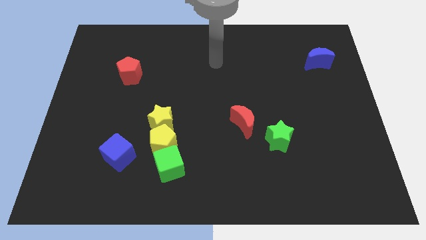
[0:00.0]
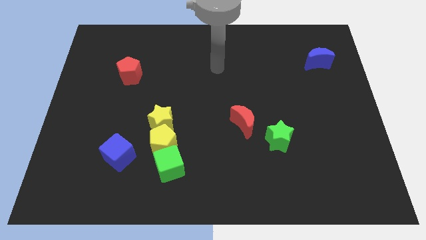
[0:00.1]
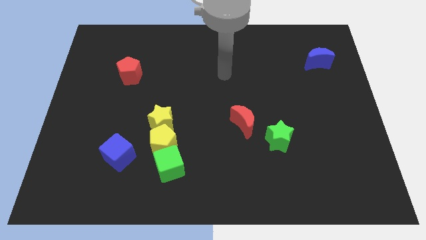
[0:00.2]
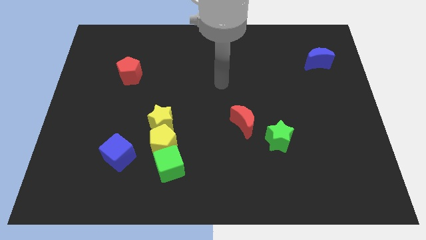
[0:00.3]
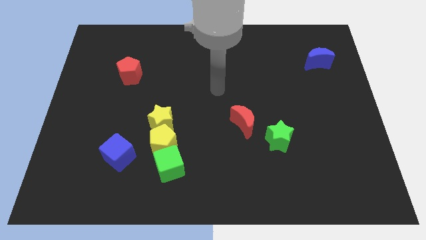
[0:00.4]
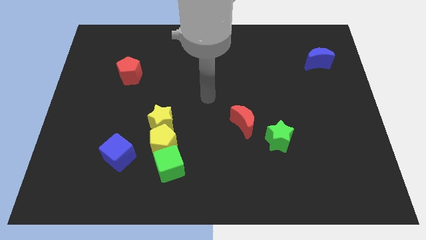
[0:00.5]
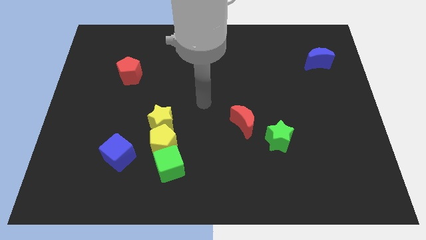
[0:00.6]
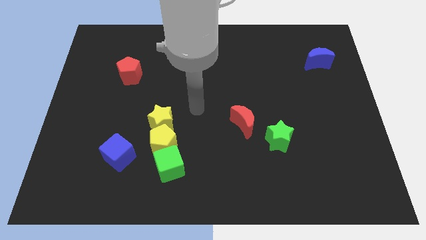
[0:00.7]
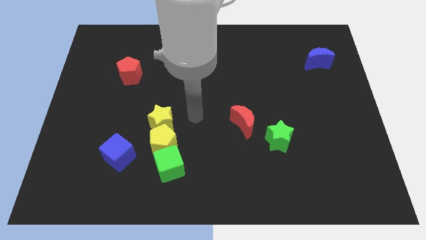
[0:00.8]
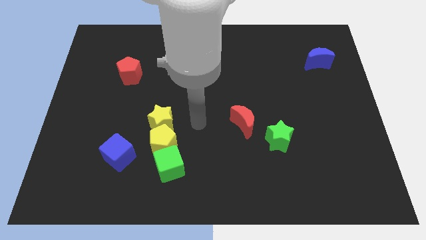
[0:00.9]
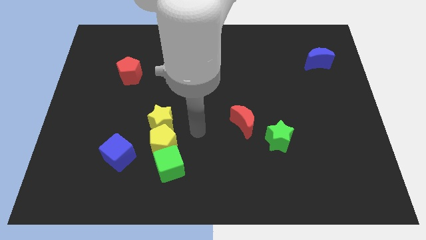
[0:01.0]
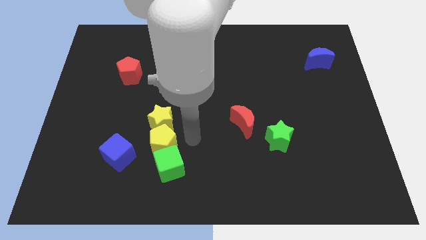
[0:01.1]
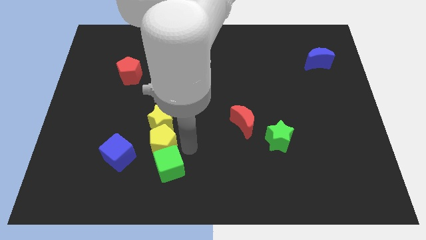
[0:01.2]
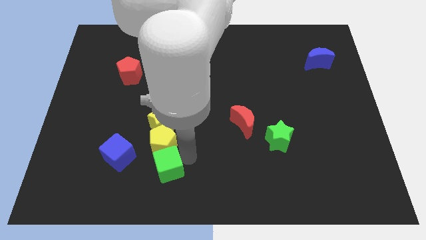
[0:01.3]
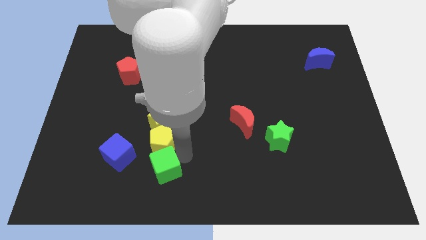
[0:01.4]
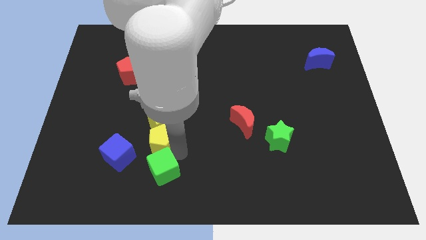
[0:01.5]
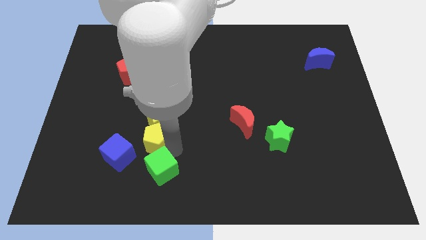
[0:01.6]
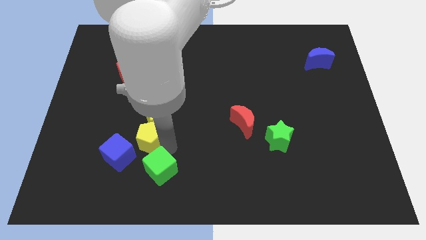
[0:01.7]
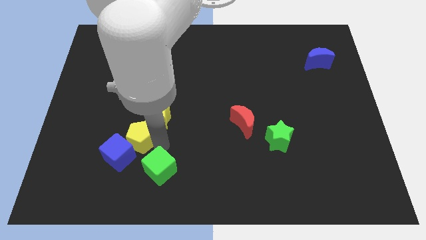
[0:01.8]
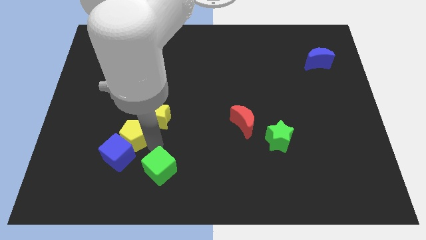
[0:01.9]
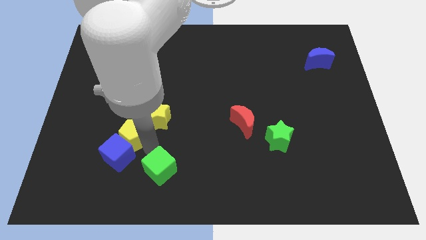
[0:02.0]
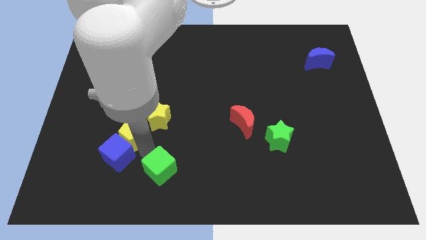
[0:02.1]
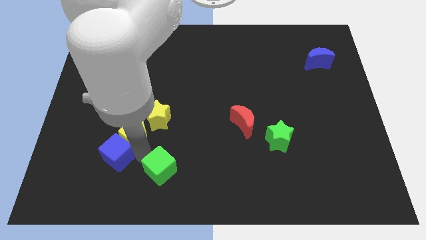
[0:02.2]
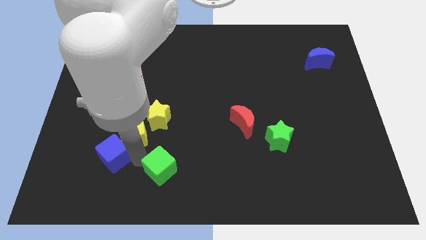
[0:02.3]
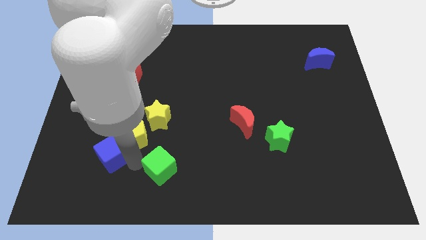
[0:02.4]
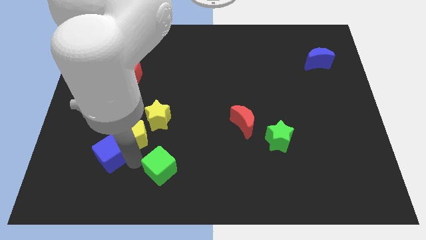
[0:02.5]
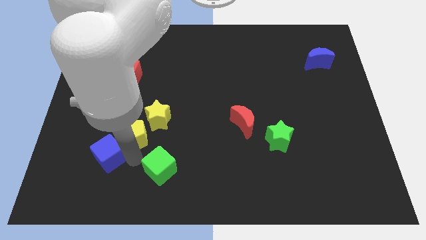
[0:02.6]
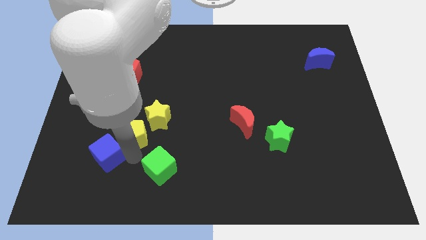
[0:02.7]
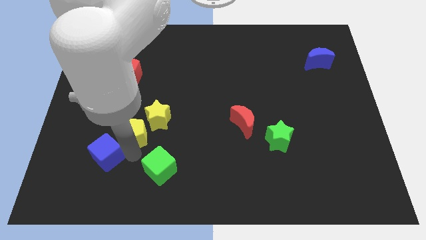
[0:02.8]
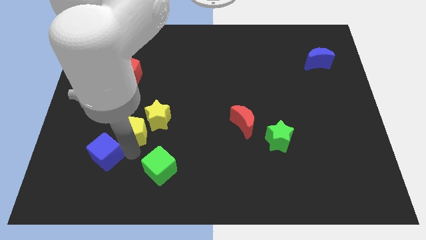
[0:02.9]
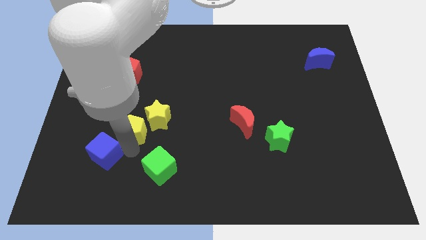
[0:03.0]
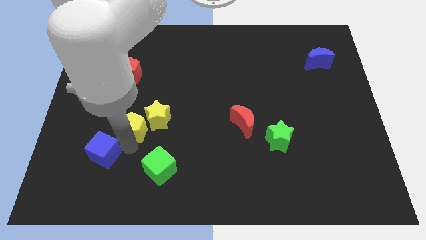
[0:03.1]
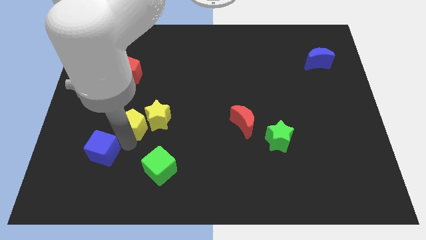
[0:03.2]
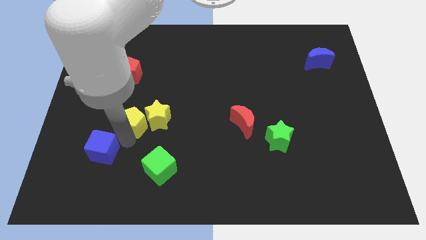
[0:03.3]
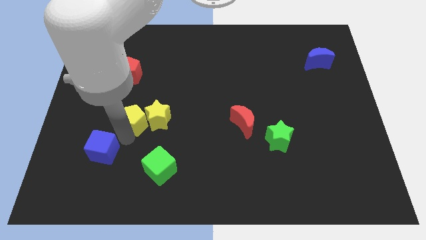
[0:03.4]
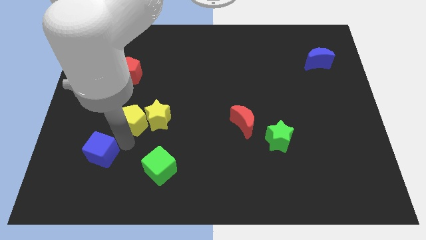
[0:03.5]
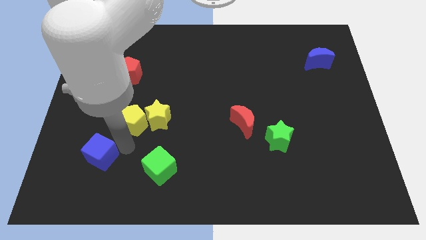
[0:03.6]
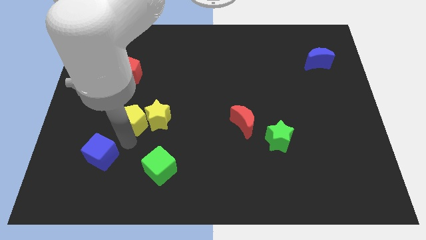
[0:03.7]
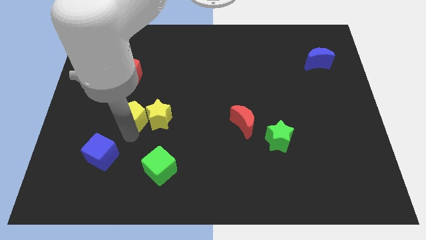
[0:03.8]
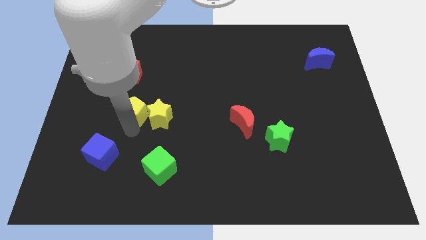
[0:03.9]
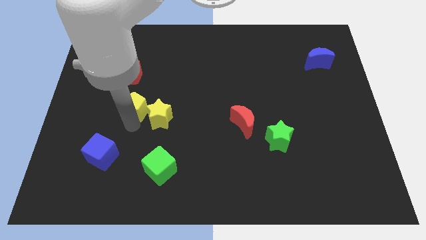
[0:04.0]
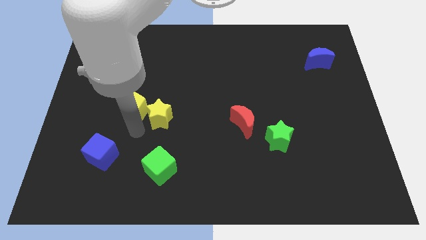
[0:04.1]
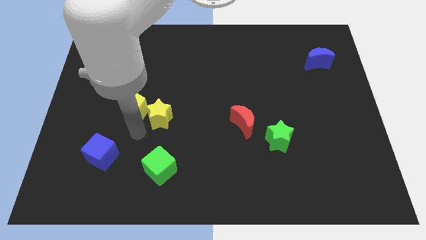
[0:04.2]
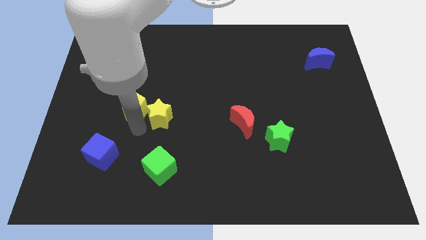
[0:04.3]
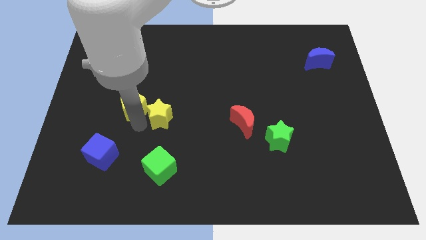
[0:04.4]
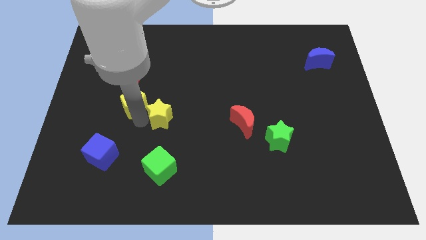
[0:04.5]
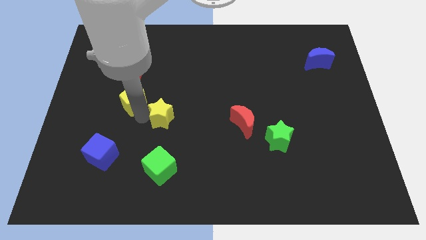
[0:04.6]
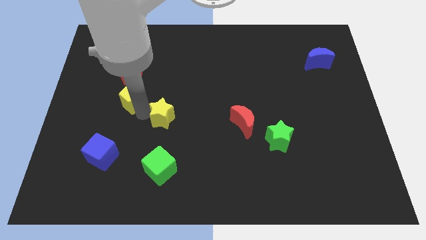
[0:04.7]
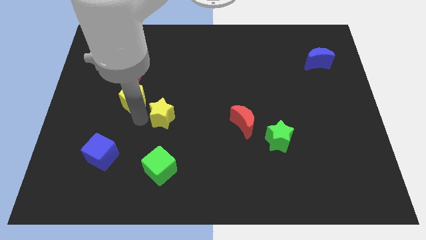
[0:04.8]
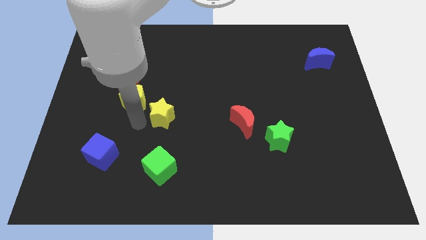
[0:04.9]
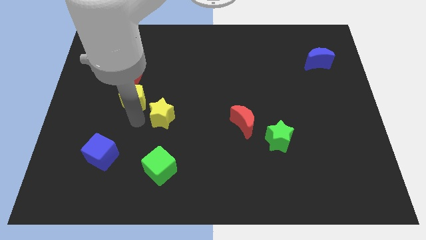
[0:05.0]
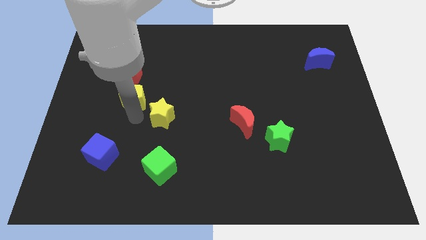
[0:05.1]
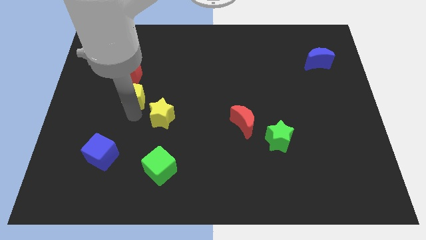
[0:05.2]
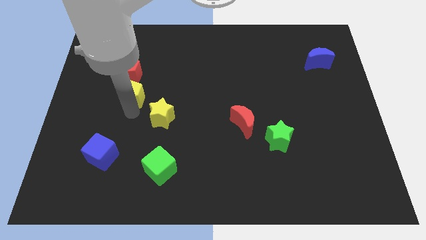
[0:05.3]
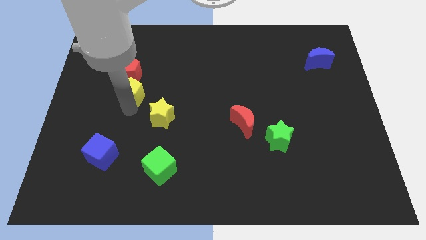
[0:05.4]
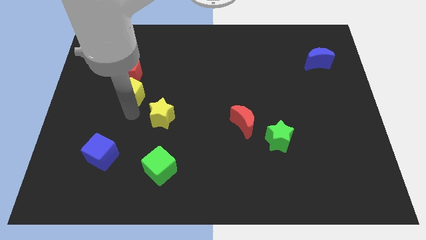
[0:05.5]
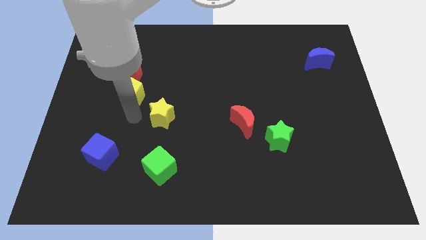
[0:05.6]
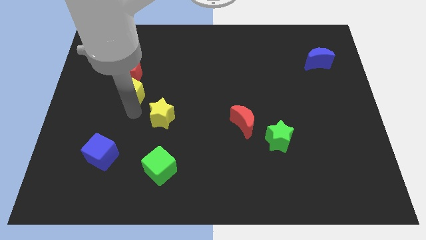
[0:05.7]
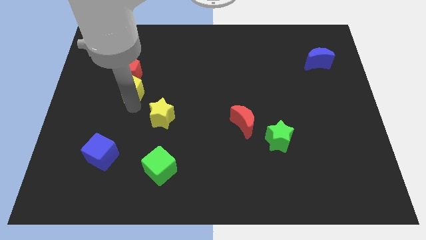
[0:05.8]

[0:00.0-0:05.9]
put the yellow pentagon close to the red pentagon

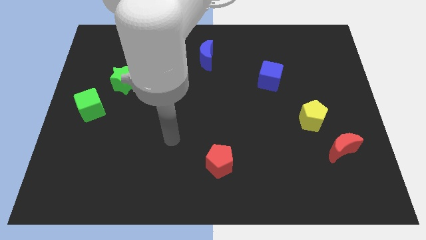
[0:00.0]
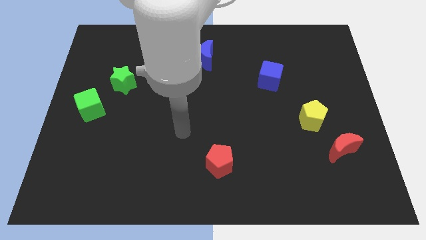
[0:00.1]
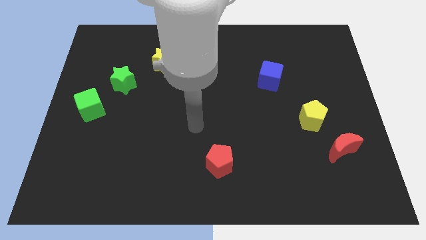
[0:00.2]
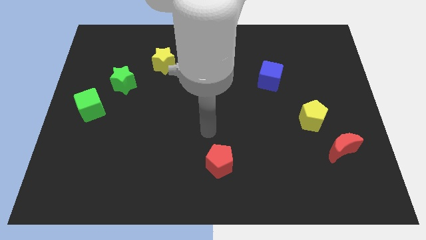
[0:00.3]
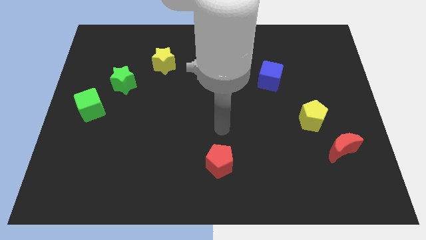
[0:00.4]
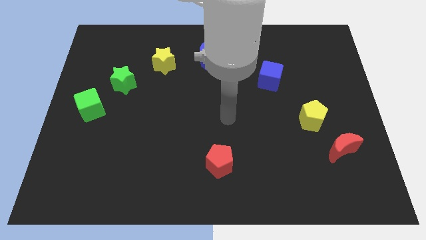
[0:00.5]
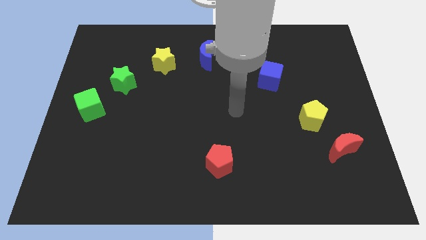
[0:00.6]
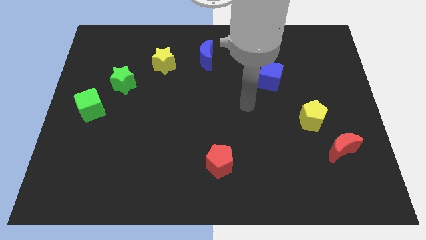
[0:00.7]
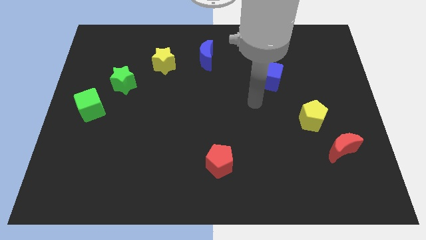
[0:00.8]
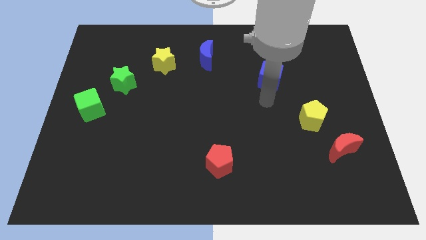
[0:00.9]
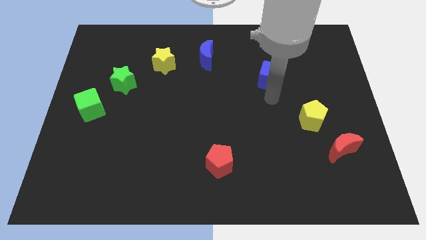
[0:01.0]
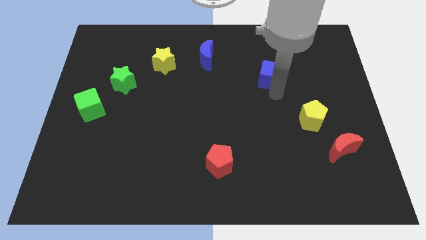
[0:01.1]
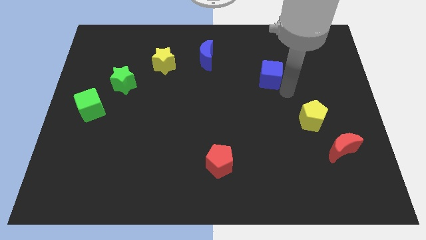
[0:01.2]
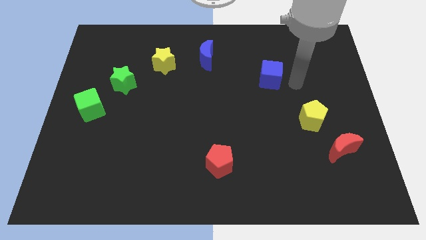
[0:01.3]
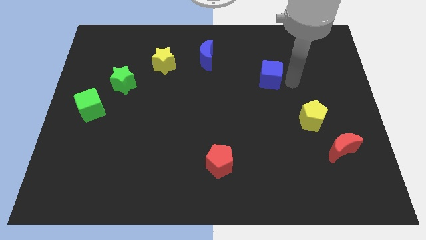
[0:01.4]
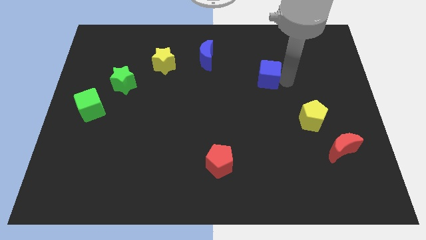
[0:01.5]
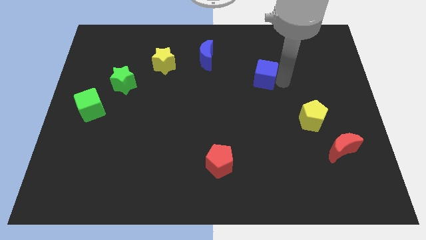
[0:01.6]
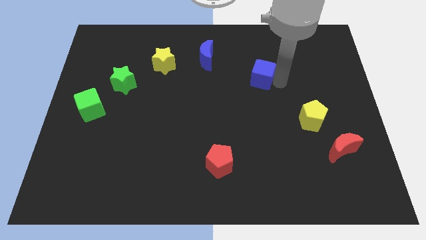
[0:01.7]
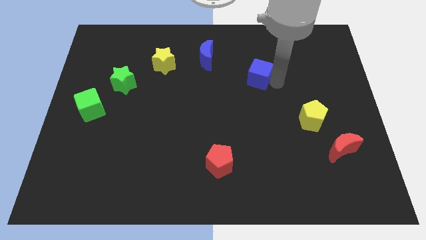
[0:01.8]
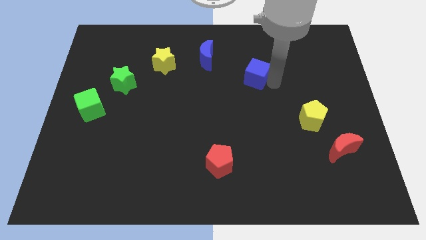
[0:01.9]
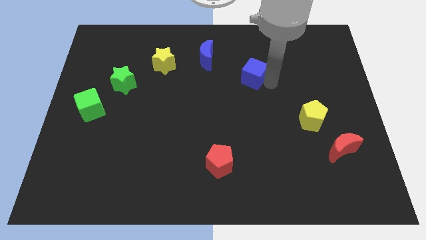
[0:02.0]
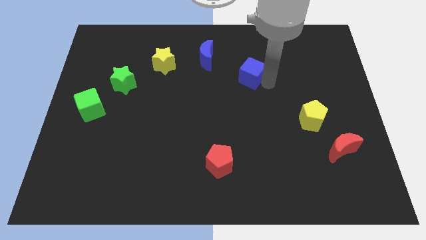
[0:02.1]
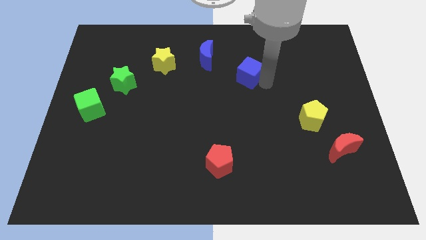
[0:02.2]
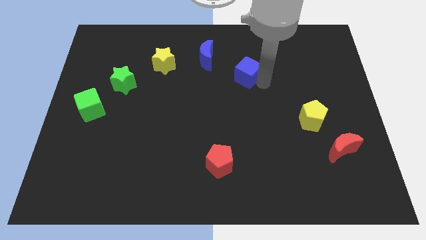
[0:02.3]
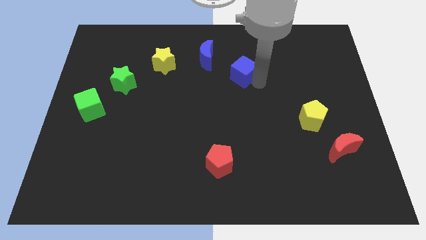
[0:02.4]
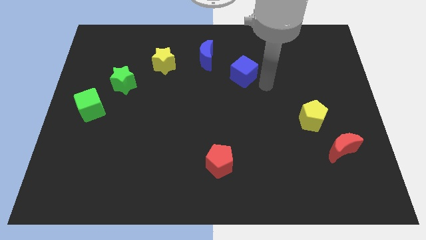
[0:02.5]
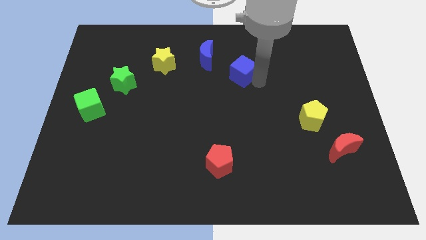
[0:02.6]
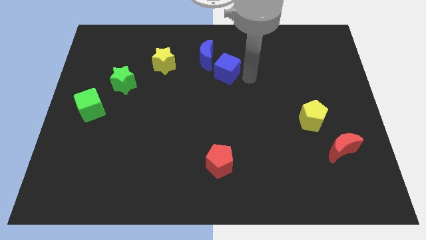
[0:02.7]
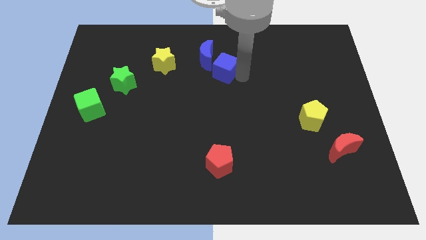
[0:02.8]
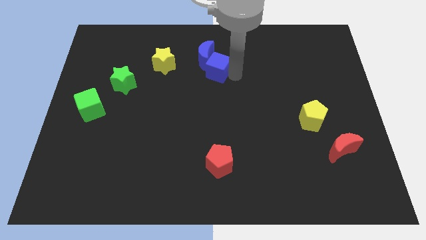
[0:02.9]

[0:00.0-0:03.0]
push the blue cube towards the blue moon
